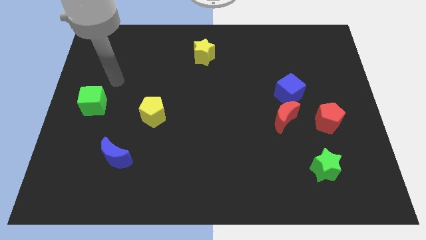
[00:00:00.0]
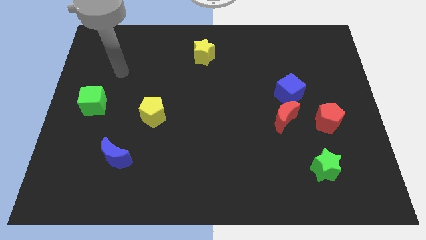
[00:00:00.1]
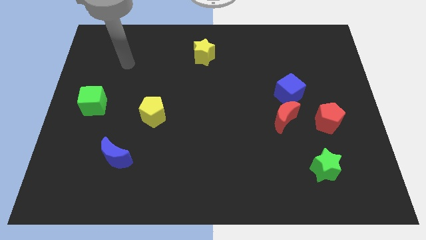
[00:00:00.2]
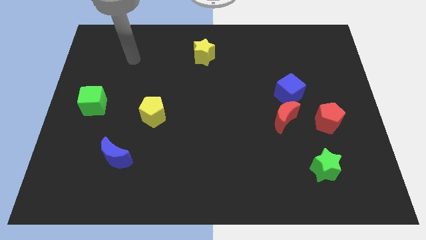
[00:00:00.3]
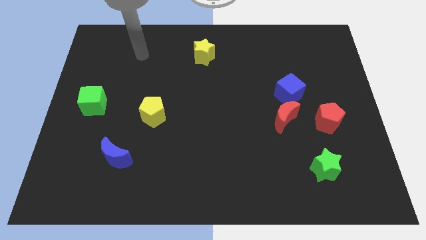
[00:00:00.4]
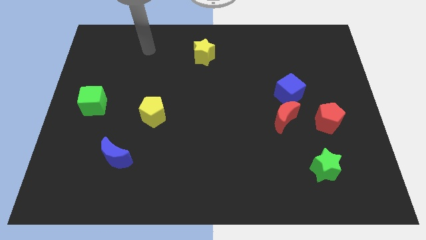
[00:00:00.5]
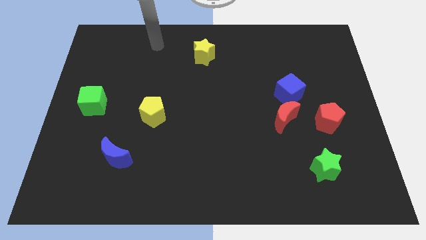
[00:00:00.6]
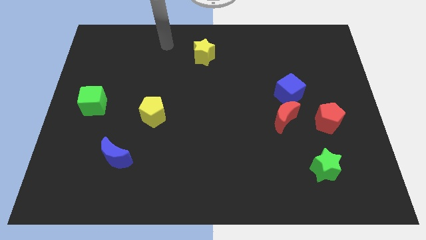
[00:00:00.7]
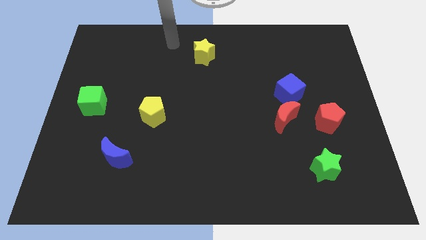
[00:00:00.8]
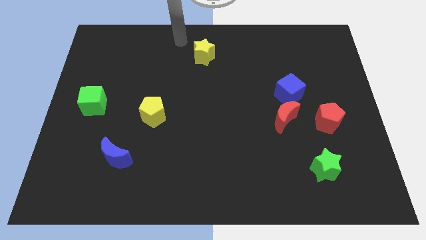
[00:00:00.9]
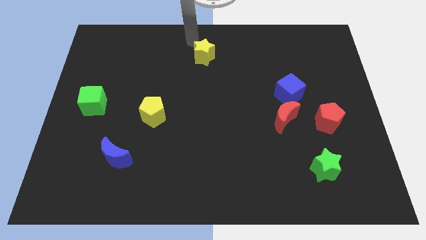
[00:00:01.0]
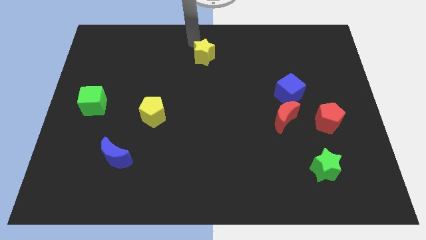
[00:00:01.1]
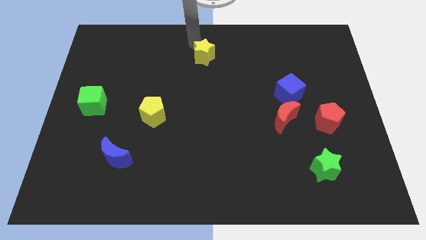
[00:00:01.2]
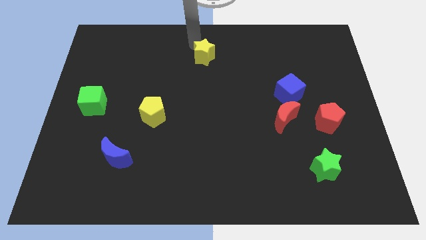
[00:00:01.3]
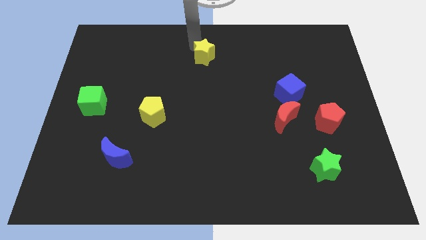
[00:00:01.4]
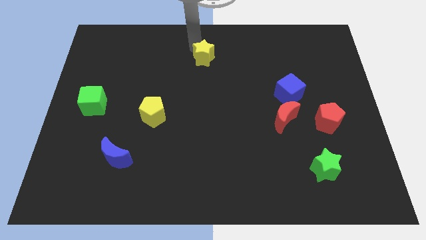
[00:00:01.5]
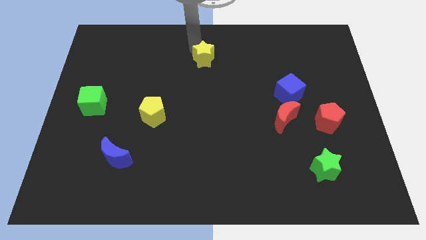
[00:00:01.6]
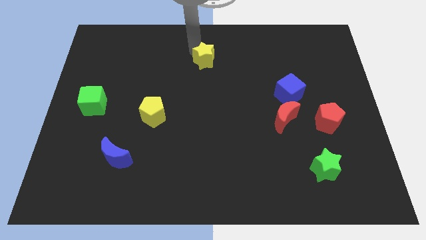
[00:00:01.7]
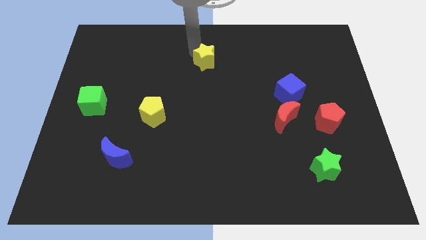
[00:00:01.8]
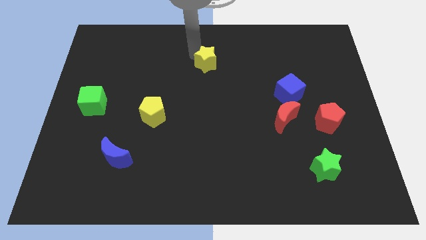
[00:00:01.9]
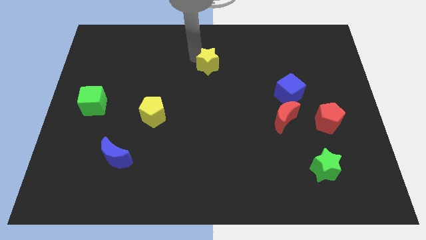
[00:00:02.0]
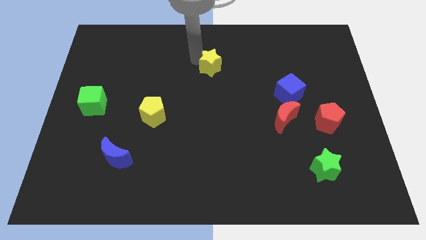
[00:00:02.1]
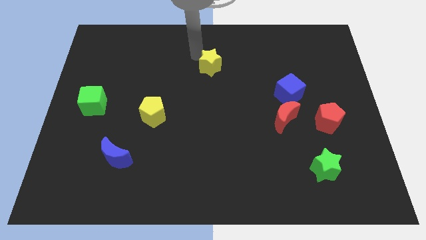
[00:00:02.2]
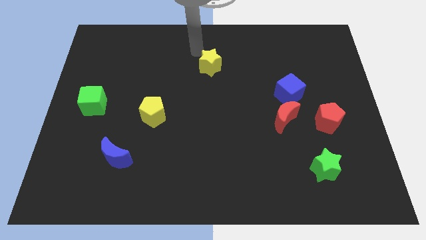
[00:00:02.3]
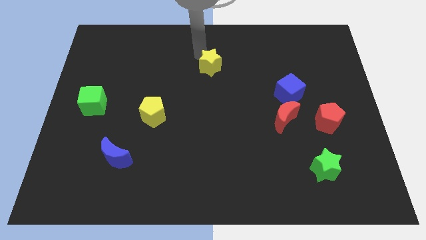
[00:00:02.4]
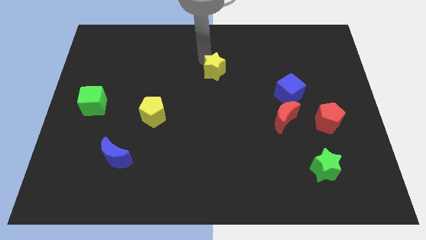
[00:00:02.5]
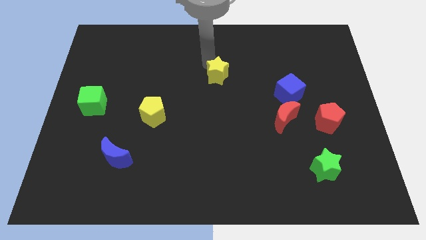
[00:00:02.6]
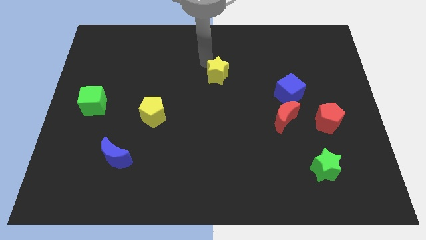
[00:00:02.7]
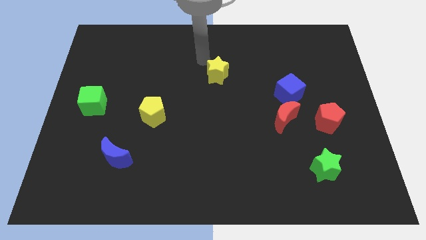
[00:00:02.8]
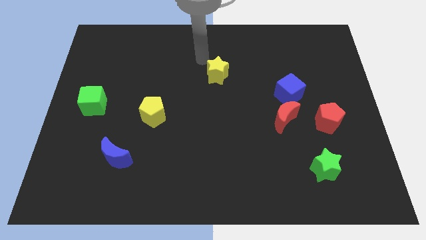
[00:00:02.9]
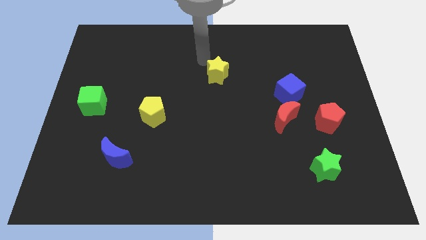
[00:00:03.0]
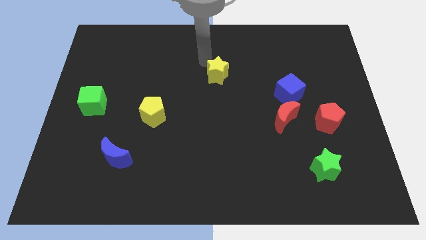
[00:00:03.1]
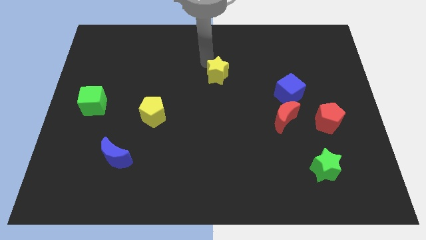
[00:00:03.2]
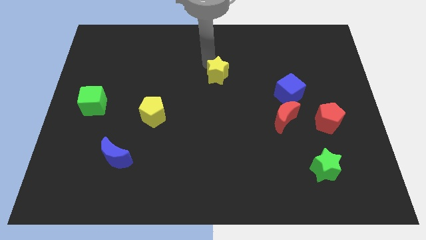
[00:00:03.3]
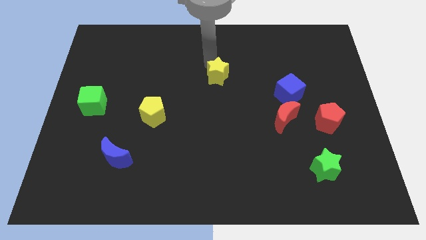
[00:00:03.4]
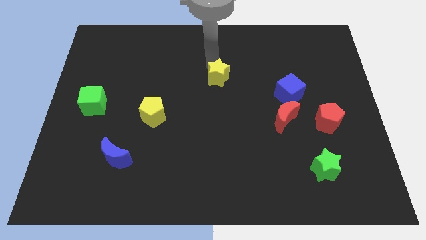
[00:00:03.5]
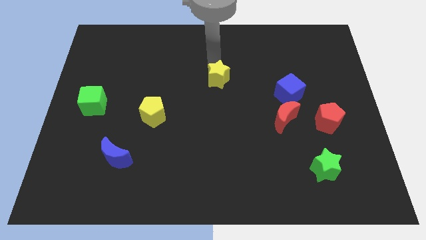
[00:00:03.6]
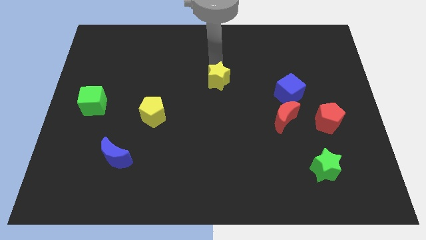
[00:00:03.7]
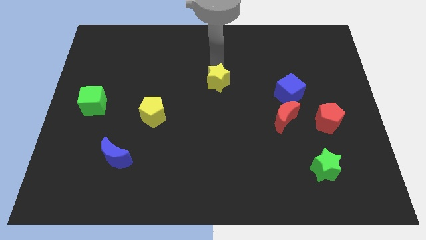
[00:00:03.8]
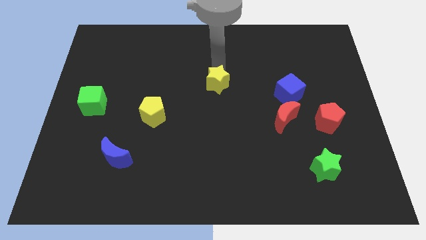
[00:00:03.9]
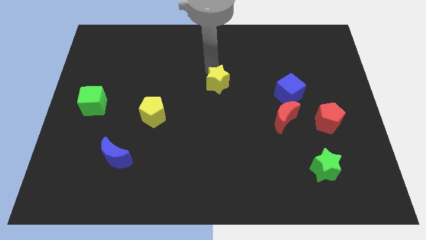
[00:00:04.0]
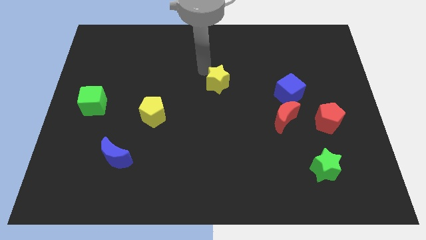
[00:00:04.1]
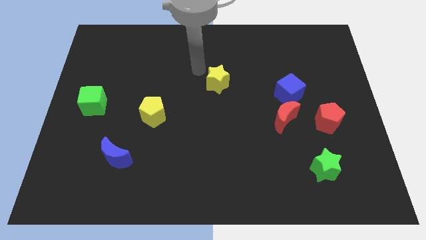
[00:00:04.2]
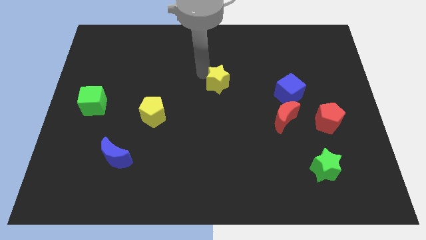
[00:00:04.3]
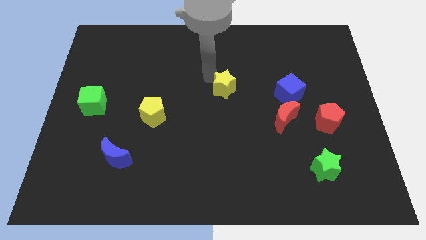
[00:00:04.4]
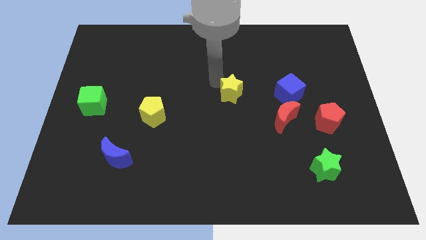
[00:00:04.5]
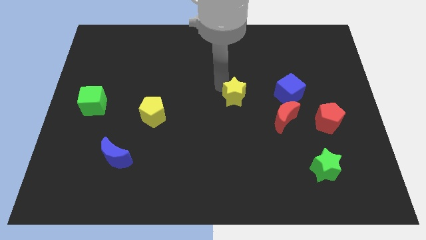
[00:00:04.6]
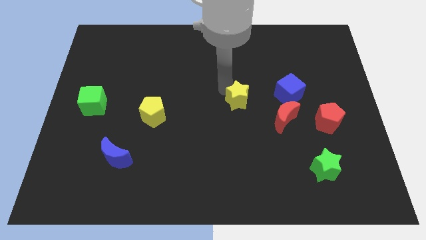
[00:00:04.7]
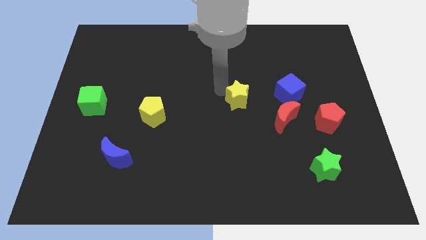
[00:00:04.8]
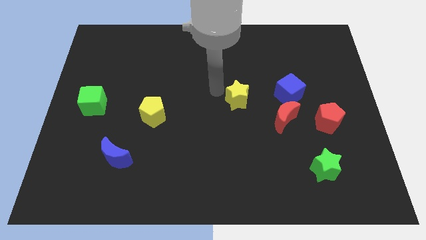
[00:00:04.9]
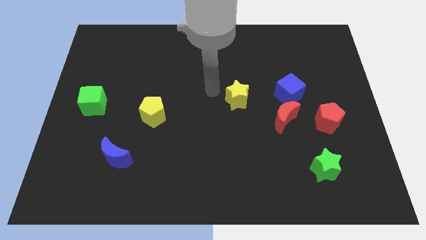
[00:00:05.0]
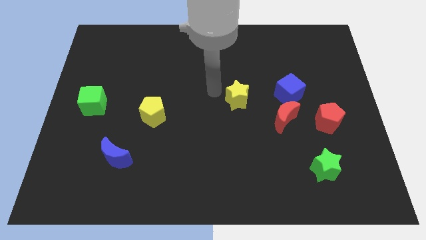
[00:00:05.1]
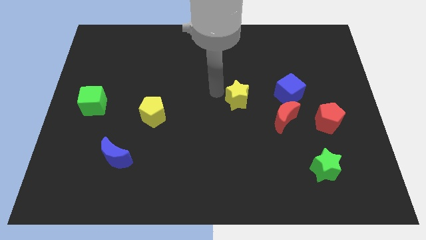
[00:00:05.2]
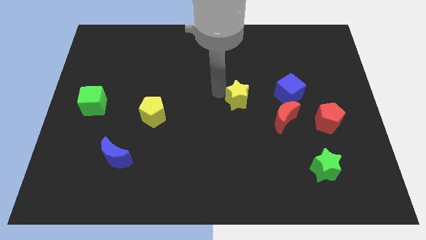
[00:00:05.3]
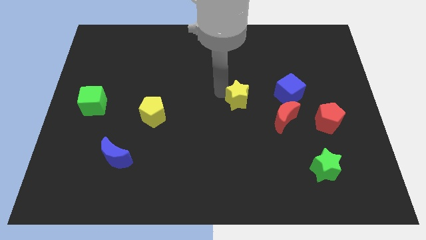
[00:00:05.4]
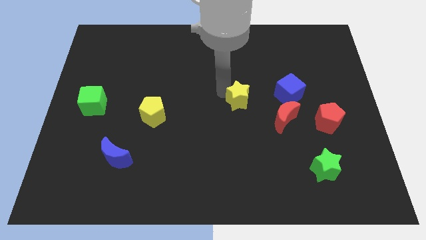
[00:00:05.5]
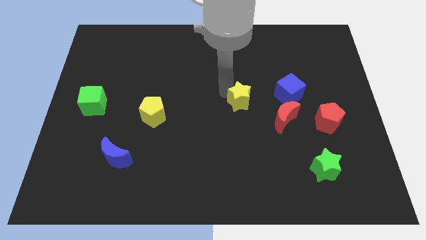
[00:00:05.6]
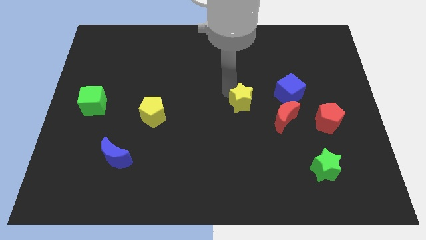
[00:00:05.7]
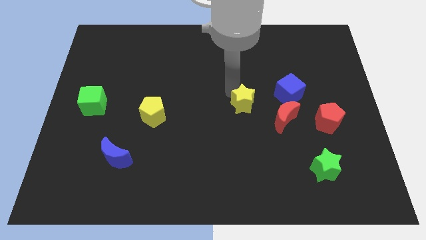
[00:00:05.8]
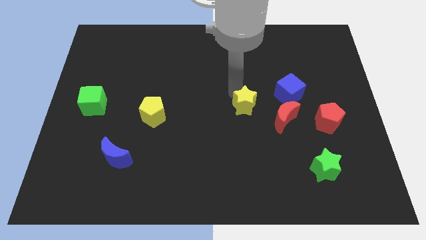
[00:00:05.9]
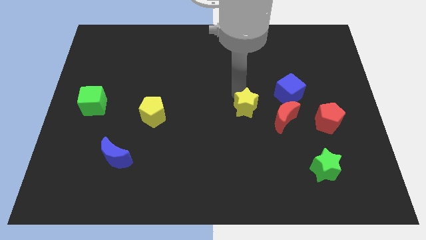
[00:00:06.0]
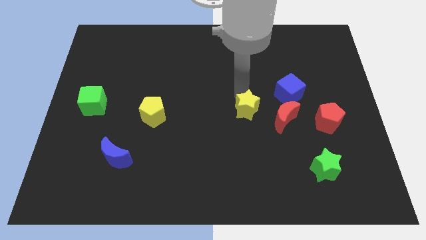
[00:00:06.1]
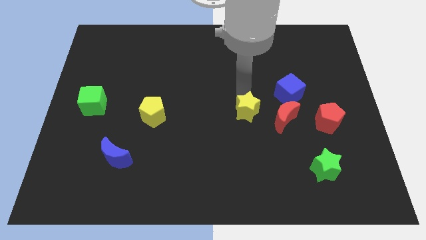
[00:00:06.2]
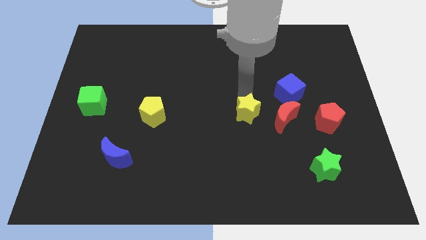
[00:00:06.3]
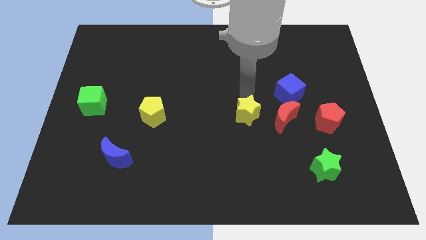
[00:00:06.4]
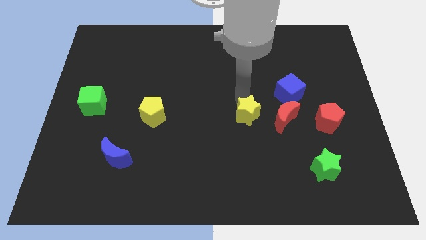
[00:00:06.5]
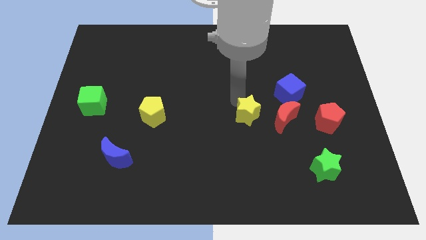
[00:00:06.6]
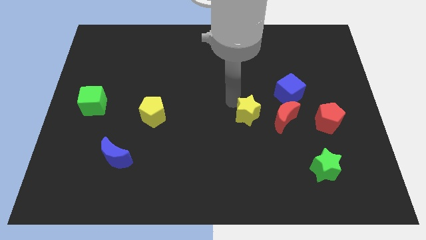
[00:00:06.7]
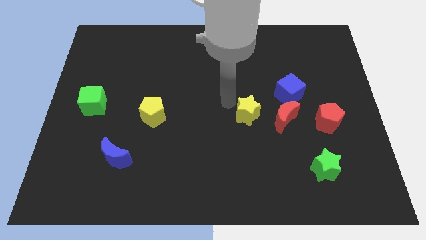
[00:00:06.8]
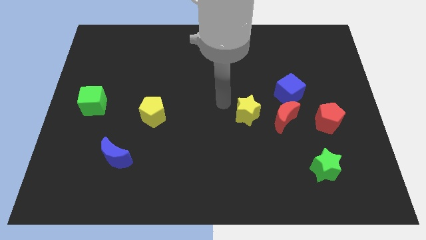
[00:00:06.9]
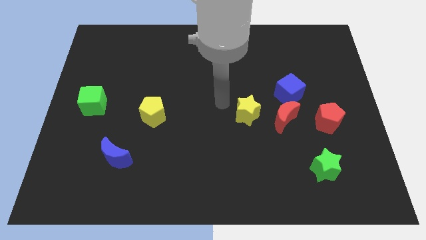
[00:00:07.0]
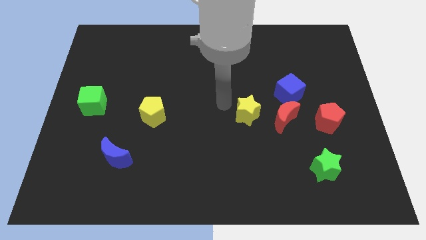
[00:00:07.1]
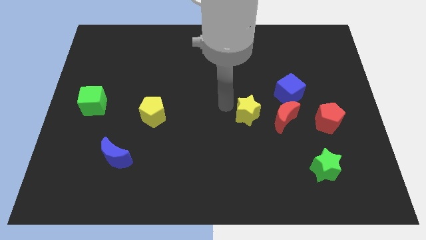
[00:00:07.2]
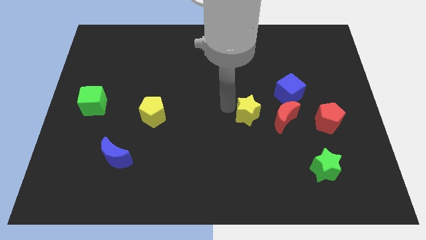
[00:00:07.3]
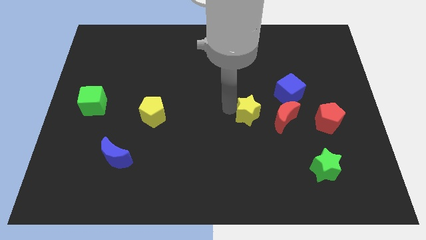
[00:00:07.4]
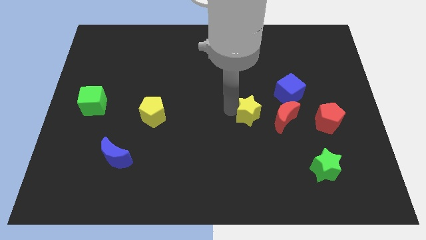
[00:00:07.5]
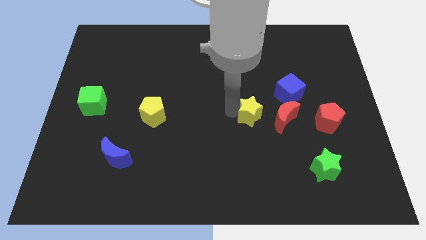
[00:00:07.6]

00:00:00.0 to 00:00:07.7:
move the yellow star down and then to the right

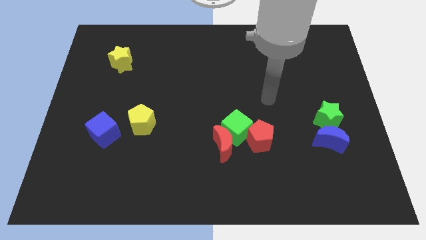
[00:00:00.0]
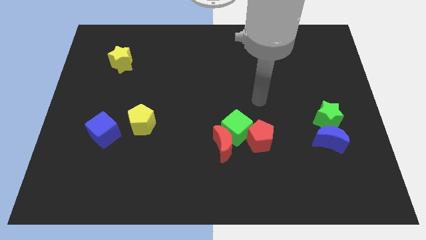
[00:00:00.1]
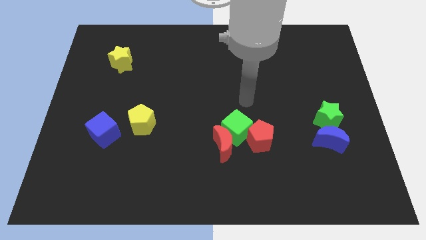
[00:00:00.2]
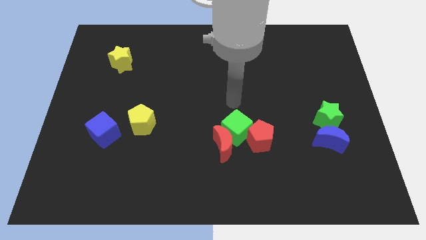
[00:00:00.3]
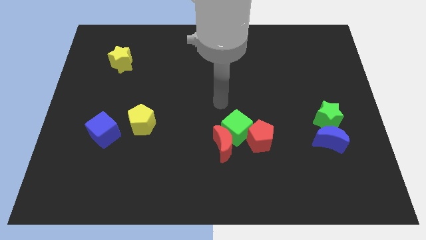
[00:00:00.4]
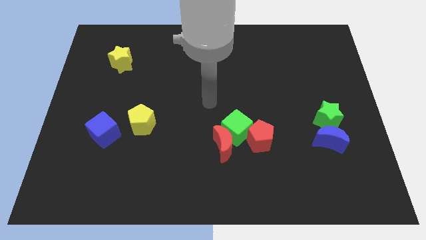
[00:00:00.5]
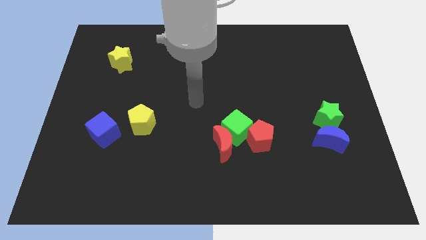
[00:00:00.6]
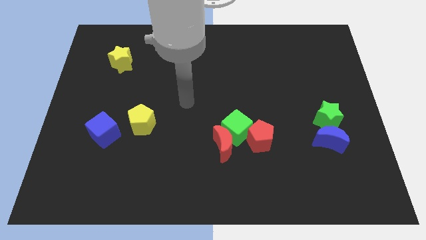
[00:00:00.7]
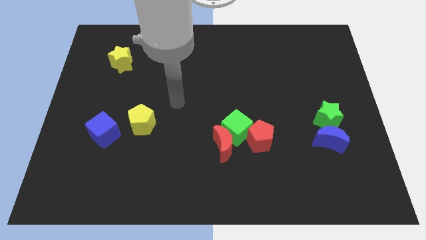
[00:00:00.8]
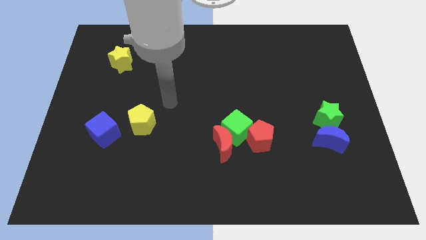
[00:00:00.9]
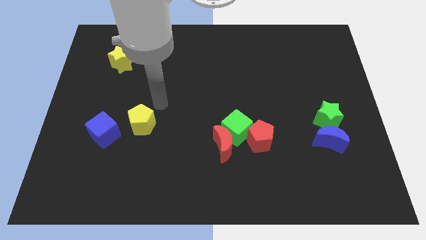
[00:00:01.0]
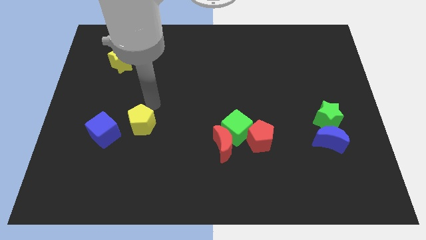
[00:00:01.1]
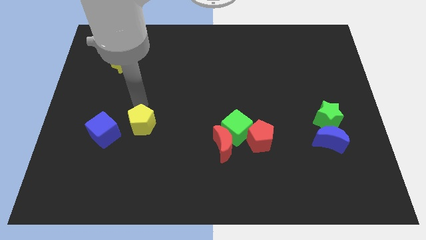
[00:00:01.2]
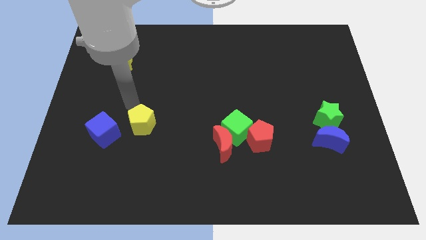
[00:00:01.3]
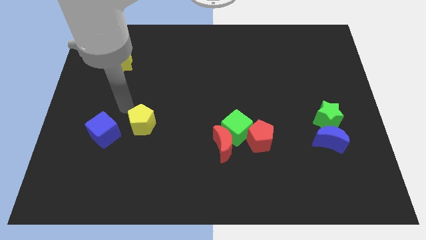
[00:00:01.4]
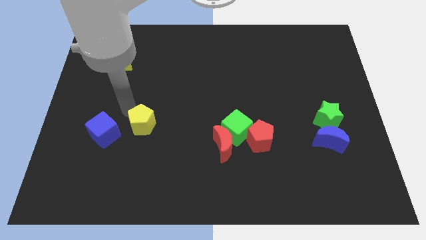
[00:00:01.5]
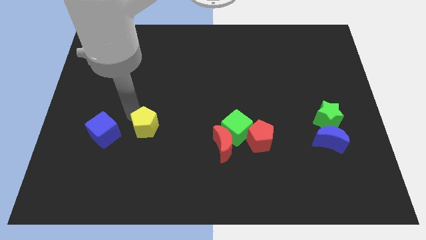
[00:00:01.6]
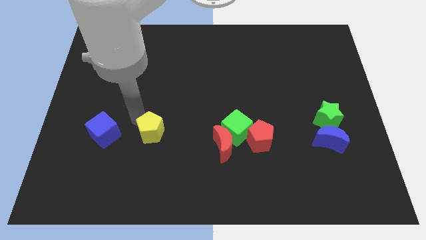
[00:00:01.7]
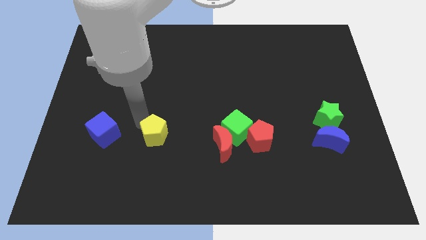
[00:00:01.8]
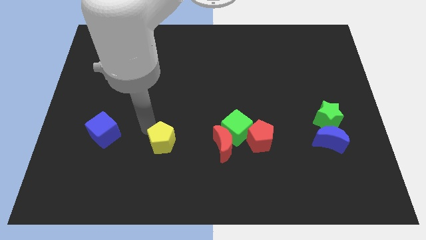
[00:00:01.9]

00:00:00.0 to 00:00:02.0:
move the yellow pentagon a little bit diagonally down and to the right
